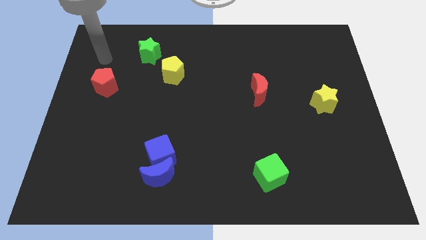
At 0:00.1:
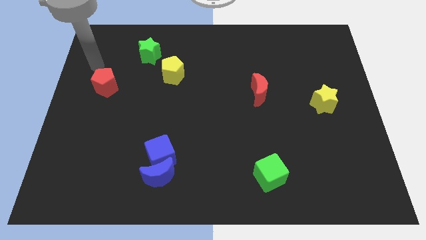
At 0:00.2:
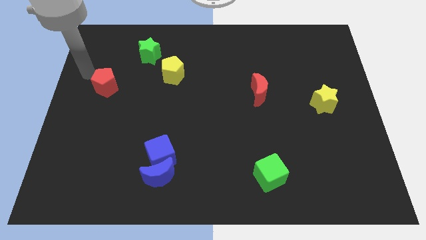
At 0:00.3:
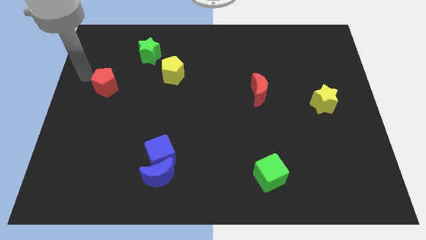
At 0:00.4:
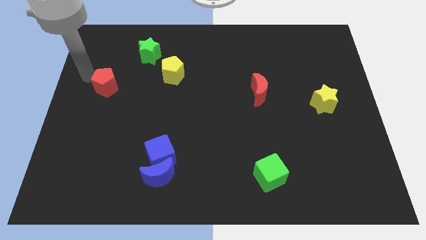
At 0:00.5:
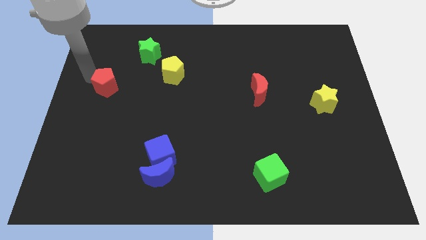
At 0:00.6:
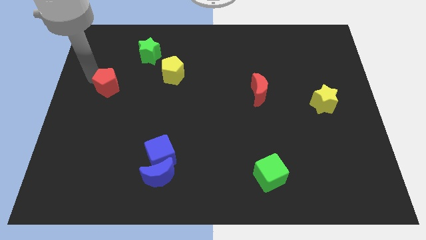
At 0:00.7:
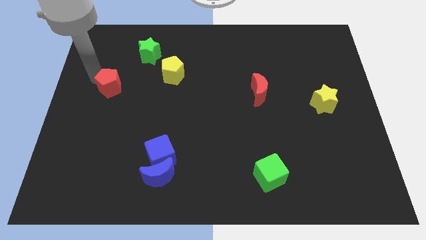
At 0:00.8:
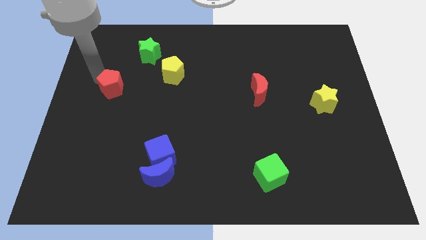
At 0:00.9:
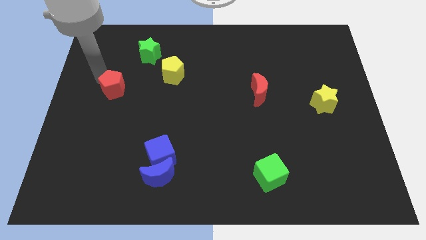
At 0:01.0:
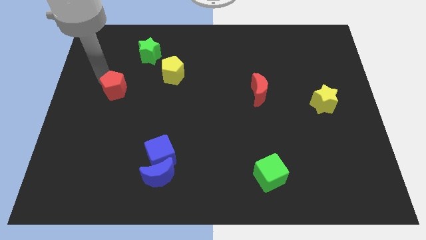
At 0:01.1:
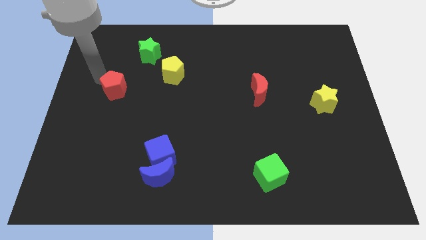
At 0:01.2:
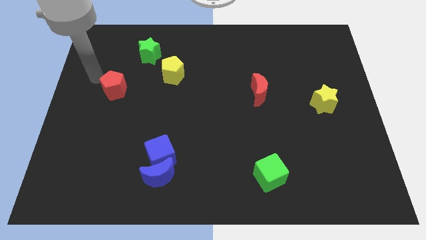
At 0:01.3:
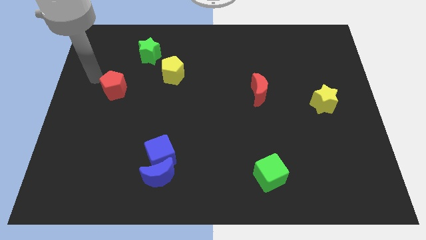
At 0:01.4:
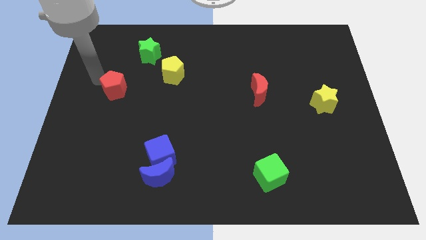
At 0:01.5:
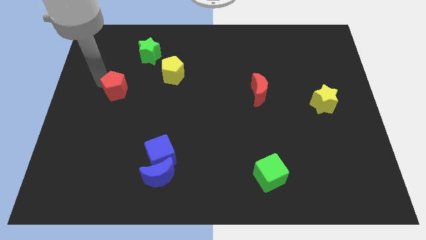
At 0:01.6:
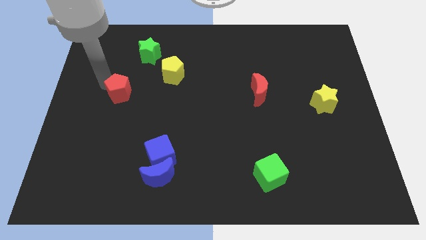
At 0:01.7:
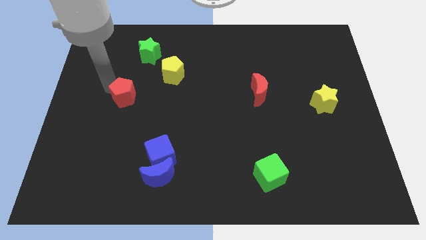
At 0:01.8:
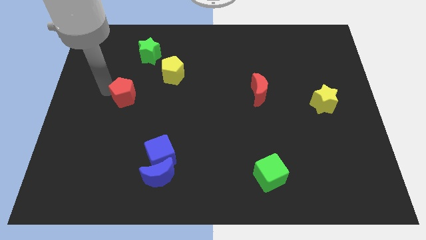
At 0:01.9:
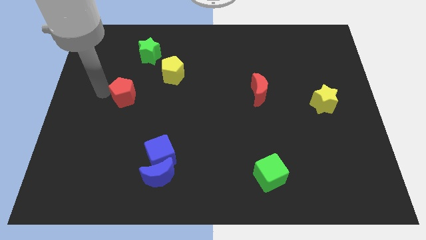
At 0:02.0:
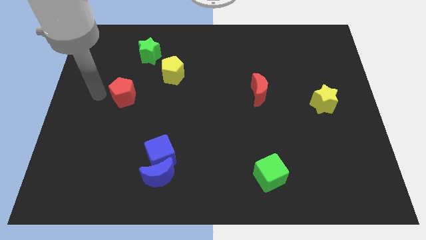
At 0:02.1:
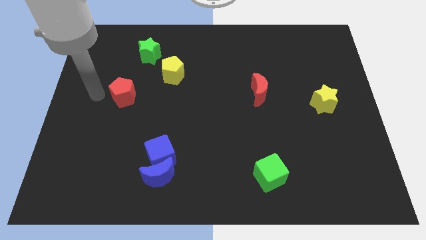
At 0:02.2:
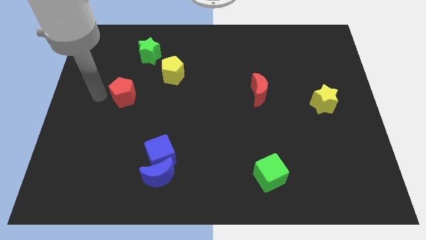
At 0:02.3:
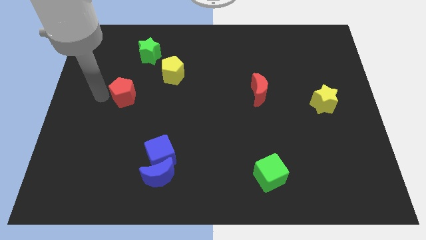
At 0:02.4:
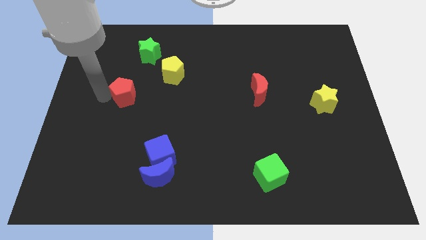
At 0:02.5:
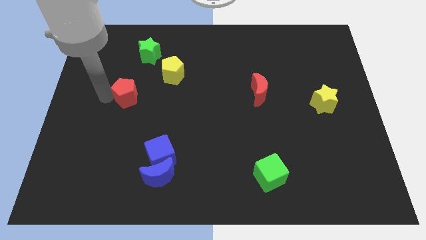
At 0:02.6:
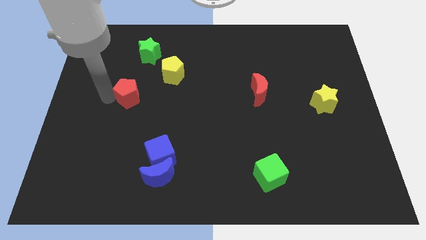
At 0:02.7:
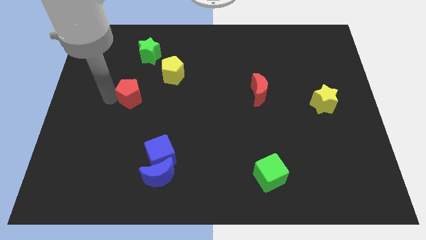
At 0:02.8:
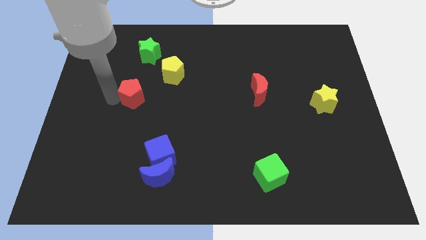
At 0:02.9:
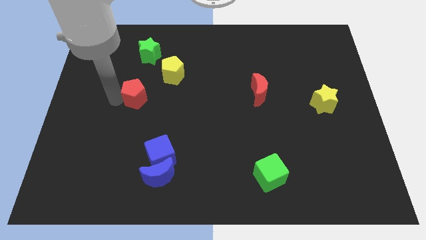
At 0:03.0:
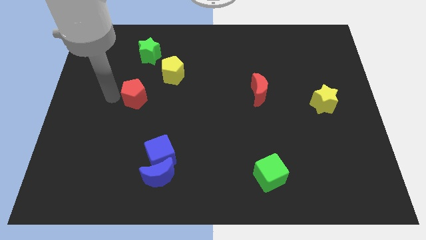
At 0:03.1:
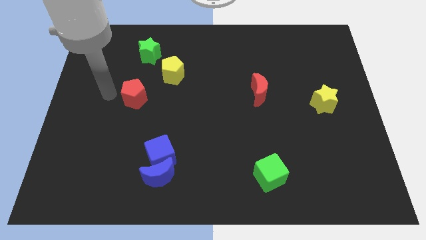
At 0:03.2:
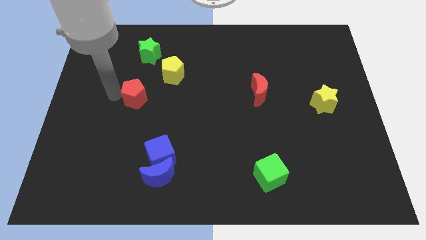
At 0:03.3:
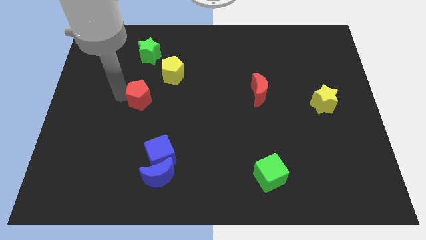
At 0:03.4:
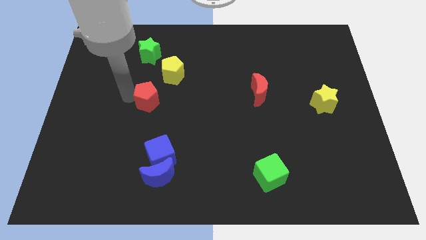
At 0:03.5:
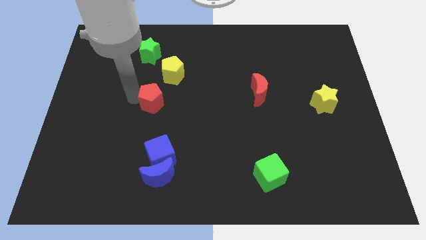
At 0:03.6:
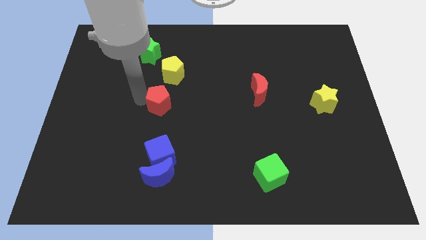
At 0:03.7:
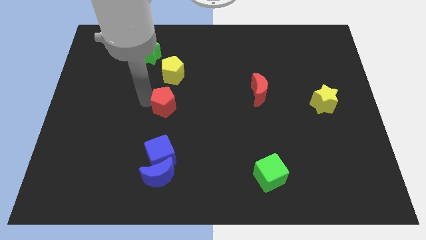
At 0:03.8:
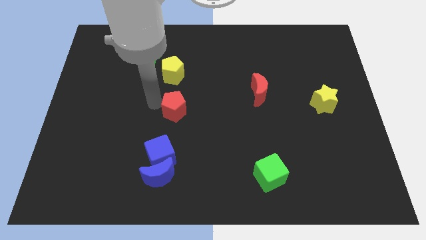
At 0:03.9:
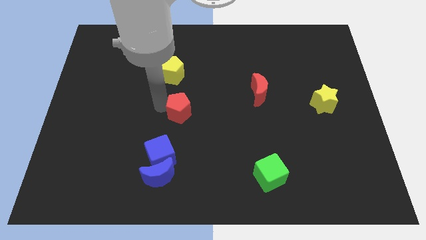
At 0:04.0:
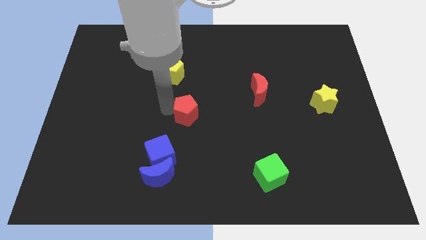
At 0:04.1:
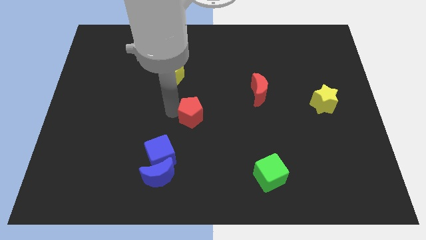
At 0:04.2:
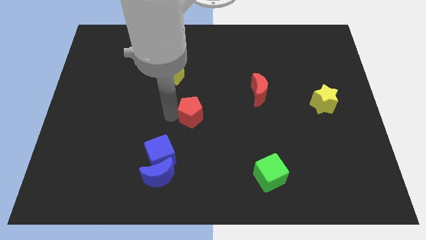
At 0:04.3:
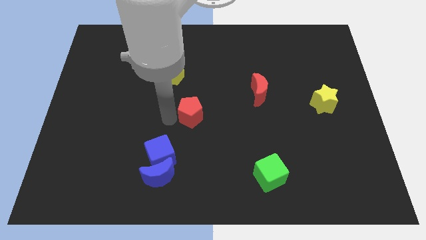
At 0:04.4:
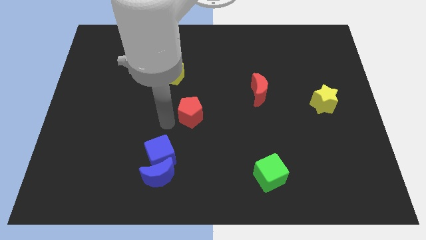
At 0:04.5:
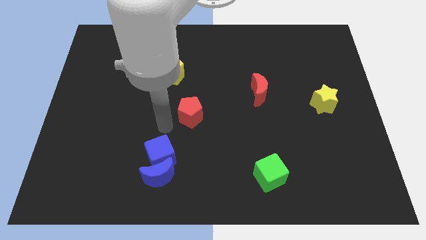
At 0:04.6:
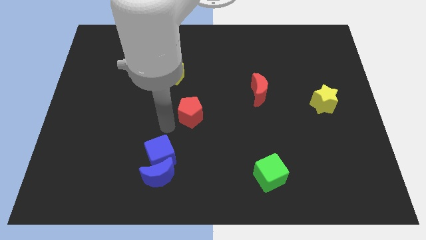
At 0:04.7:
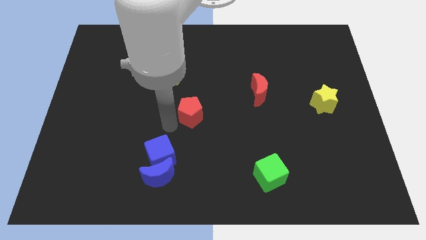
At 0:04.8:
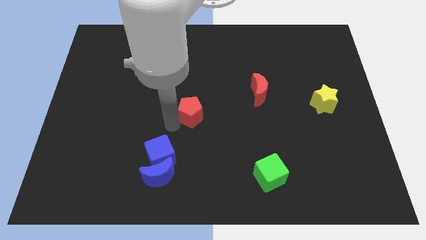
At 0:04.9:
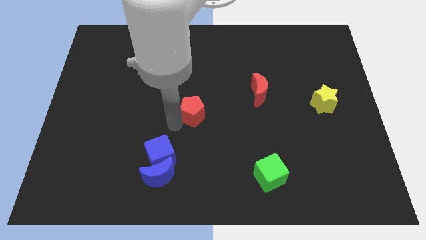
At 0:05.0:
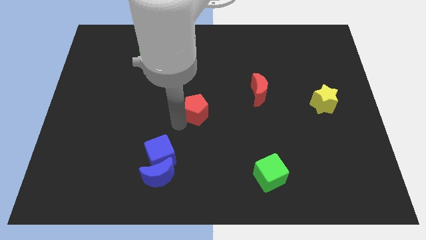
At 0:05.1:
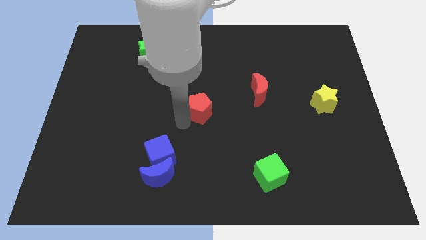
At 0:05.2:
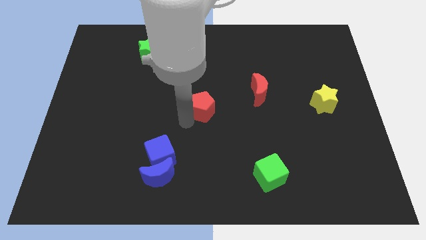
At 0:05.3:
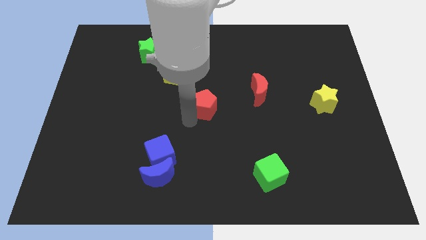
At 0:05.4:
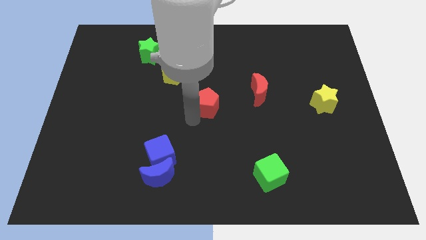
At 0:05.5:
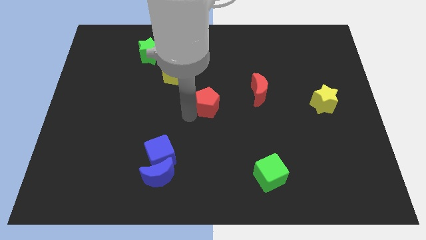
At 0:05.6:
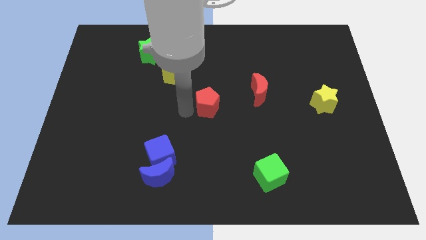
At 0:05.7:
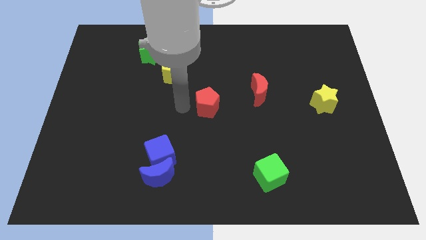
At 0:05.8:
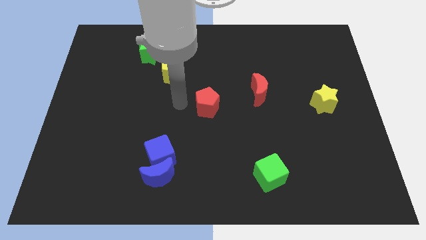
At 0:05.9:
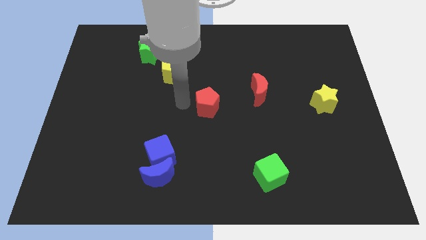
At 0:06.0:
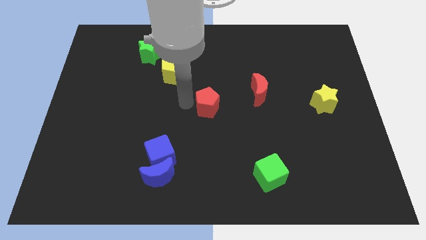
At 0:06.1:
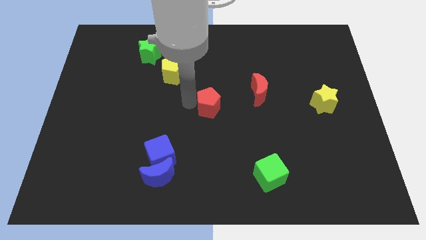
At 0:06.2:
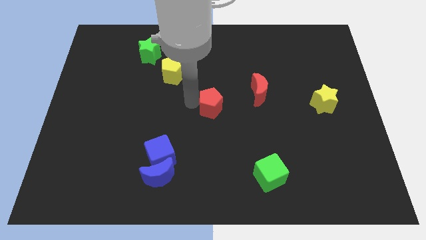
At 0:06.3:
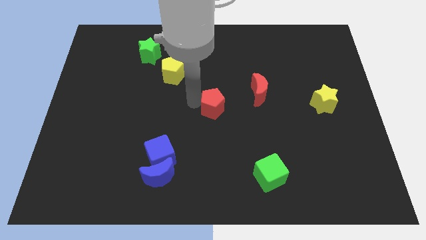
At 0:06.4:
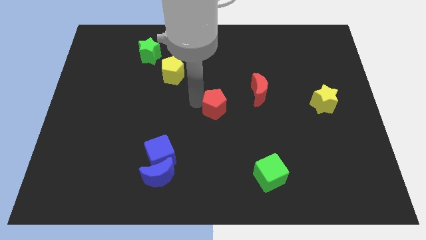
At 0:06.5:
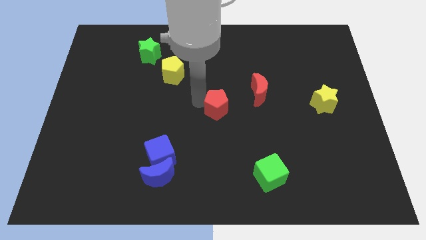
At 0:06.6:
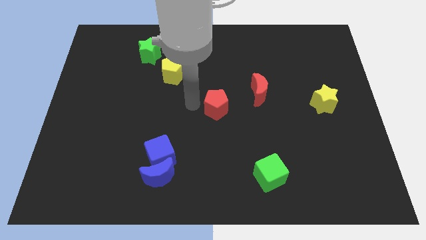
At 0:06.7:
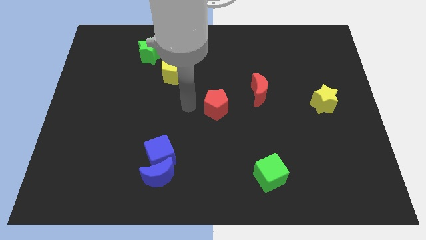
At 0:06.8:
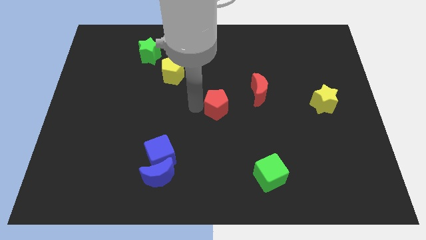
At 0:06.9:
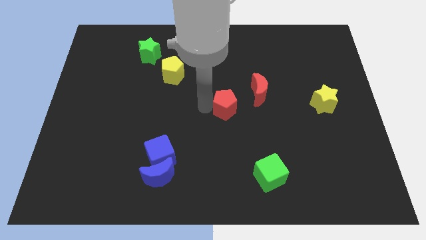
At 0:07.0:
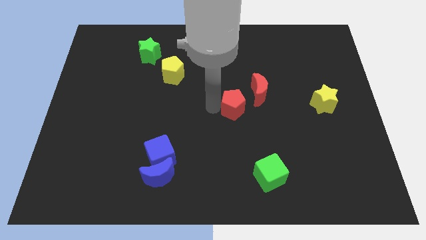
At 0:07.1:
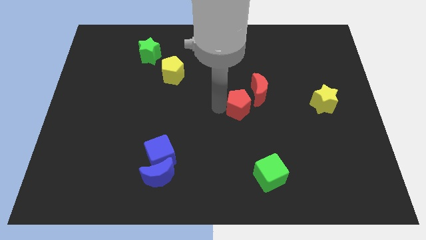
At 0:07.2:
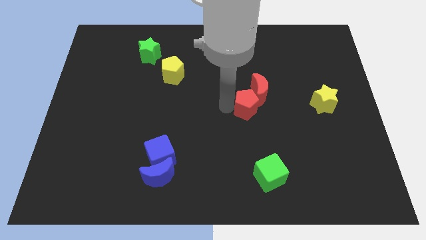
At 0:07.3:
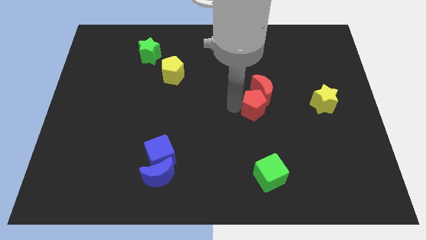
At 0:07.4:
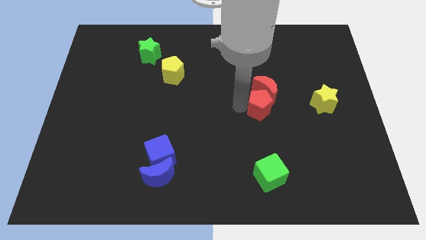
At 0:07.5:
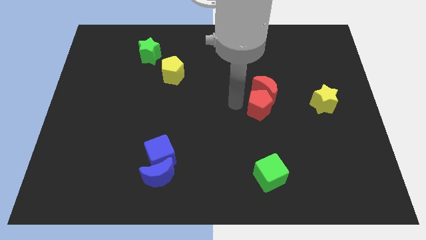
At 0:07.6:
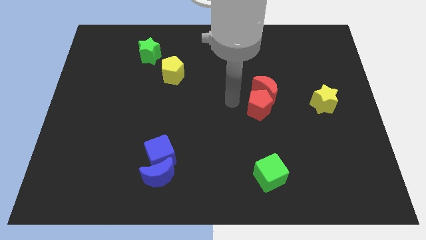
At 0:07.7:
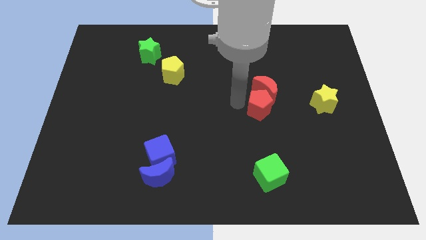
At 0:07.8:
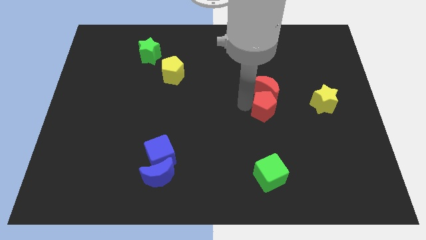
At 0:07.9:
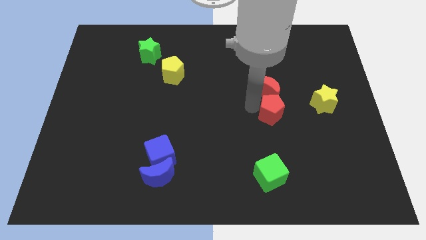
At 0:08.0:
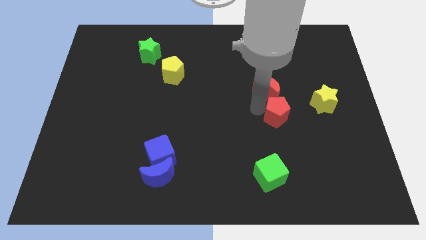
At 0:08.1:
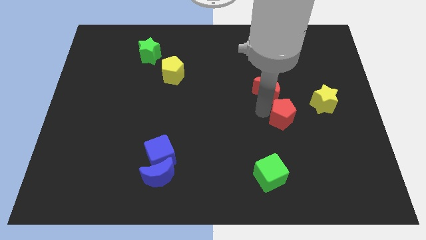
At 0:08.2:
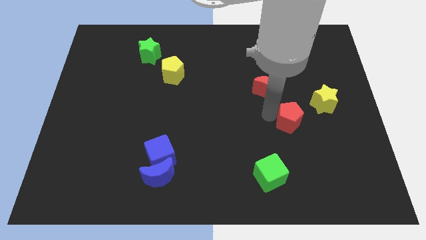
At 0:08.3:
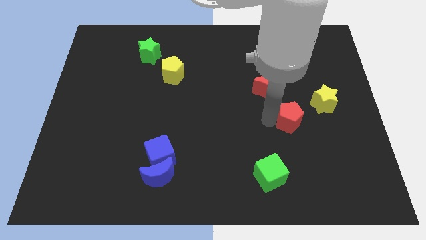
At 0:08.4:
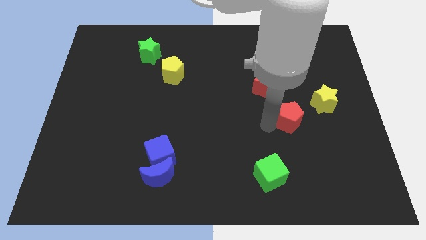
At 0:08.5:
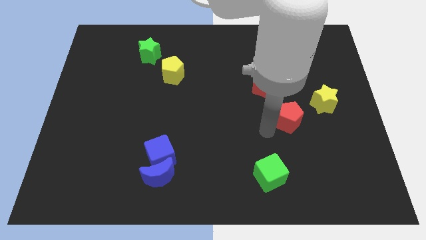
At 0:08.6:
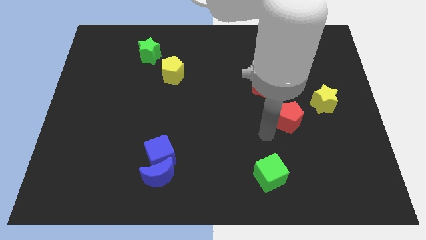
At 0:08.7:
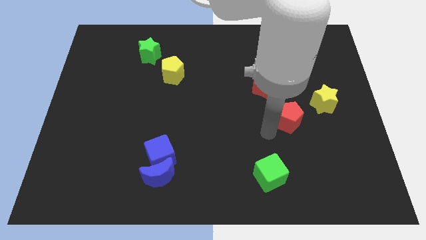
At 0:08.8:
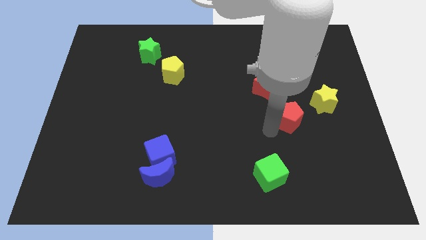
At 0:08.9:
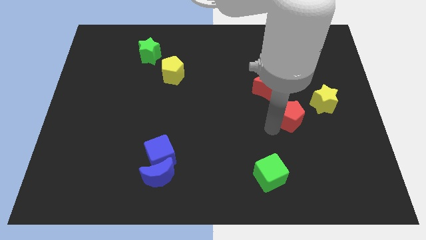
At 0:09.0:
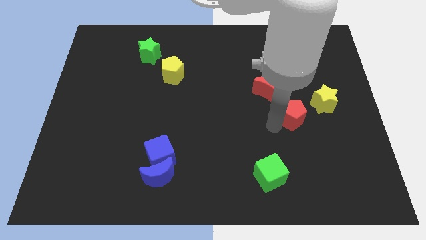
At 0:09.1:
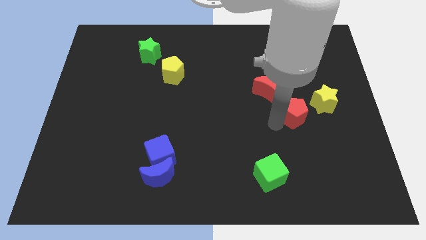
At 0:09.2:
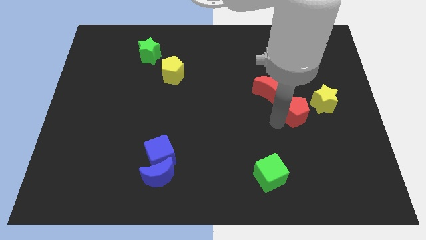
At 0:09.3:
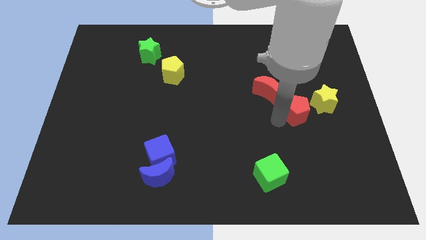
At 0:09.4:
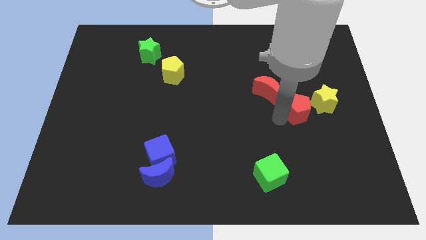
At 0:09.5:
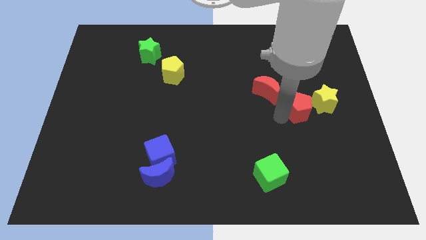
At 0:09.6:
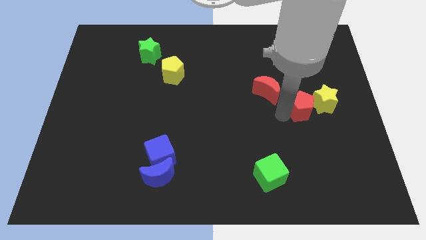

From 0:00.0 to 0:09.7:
push the red pentagon towards the yellow star
